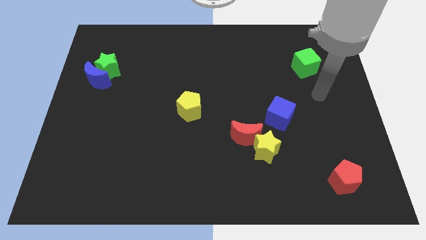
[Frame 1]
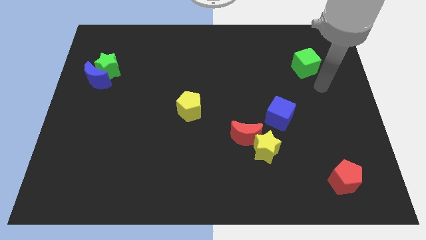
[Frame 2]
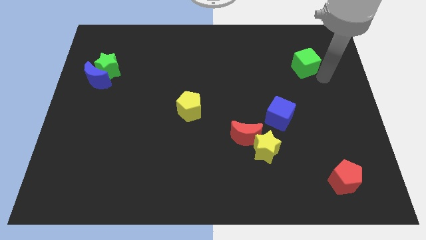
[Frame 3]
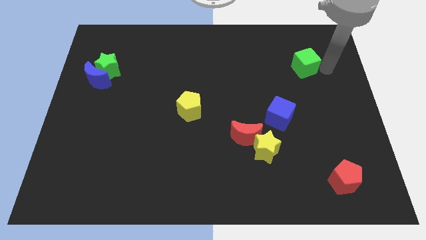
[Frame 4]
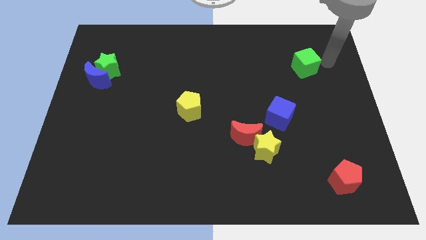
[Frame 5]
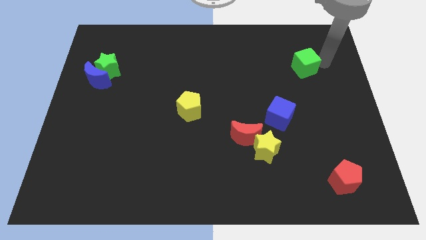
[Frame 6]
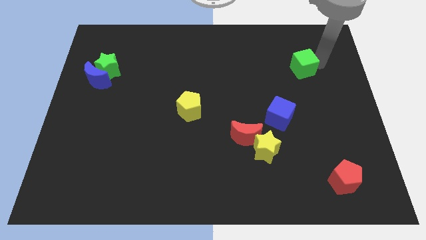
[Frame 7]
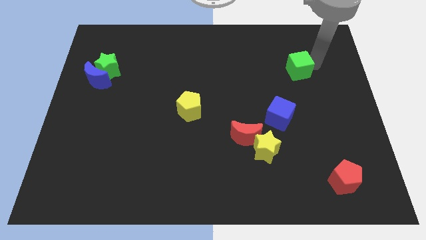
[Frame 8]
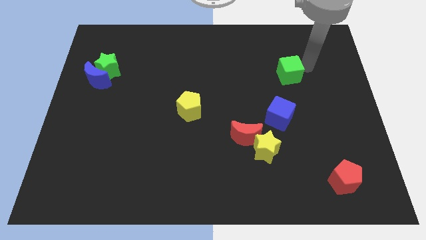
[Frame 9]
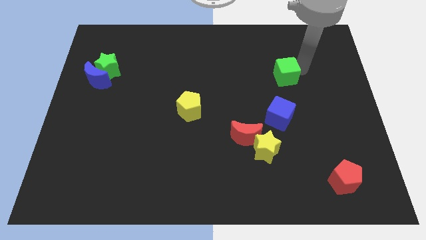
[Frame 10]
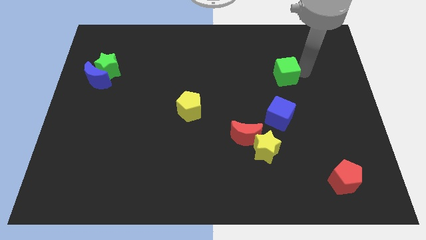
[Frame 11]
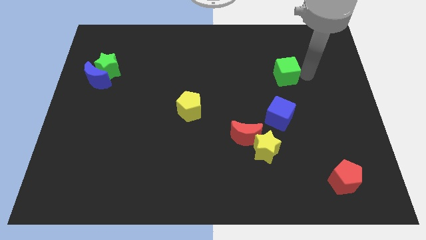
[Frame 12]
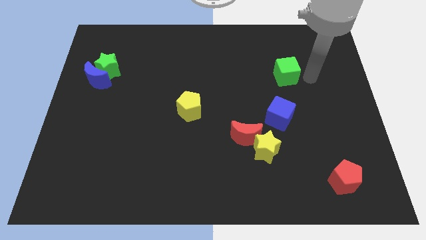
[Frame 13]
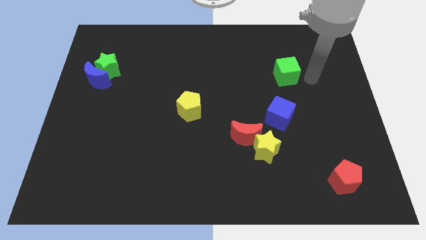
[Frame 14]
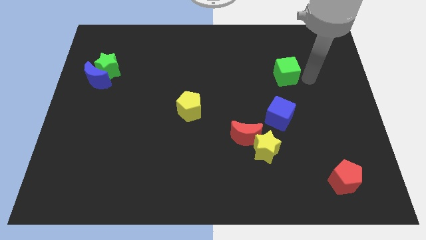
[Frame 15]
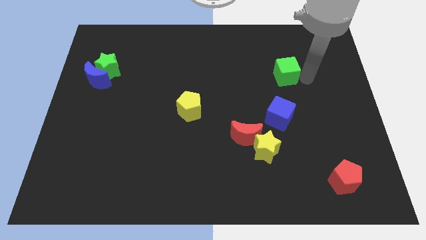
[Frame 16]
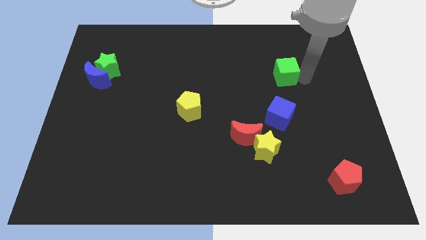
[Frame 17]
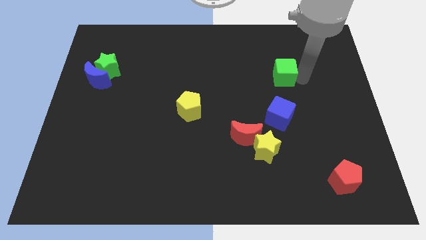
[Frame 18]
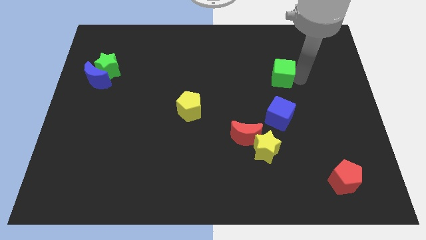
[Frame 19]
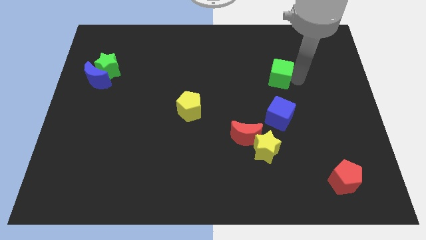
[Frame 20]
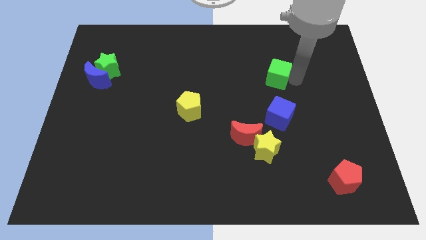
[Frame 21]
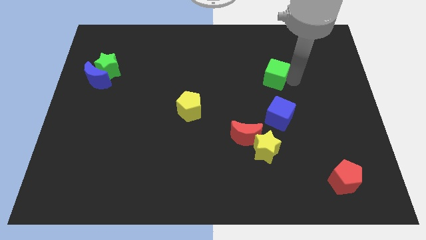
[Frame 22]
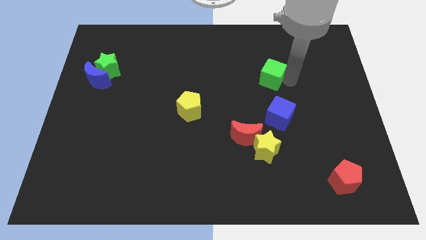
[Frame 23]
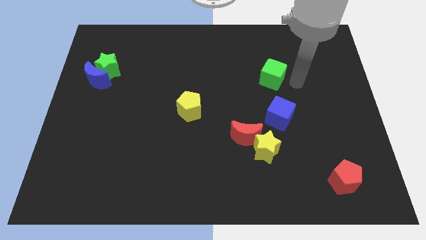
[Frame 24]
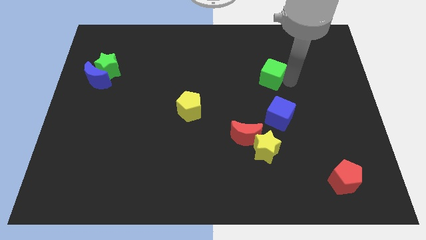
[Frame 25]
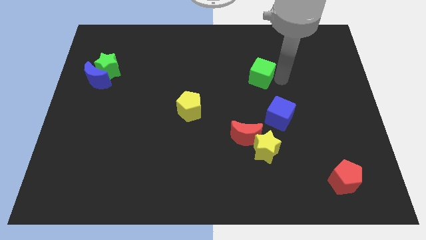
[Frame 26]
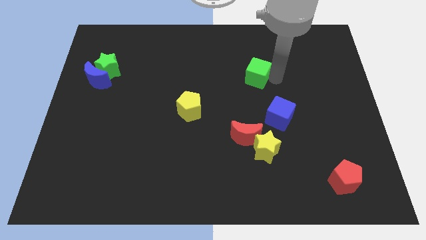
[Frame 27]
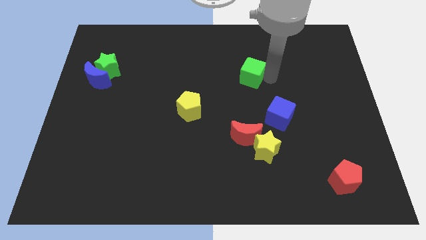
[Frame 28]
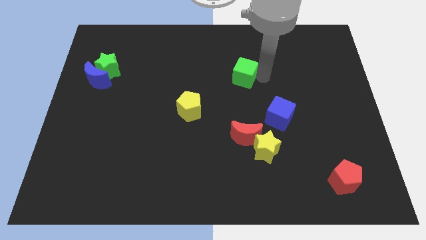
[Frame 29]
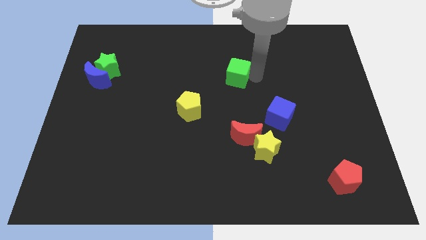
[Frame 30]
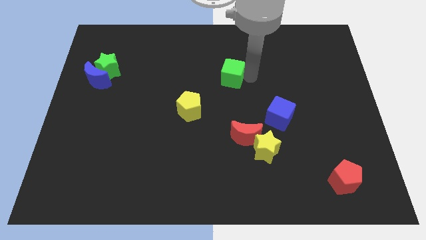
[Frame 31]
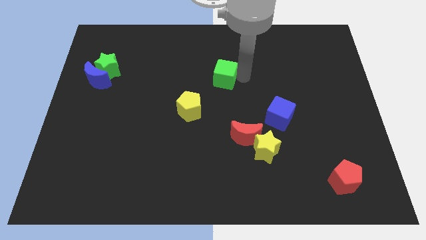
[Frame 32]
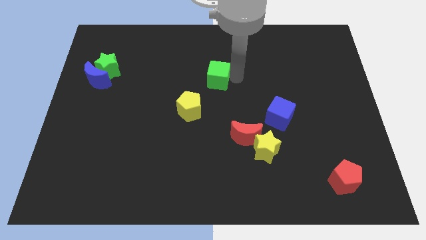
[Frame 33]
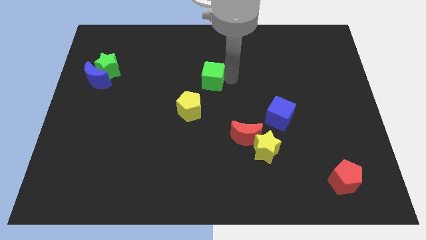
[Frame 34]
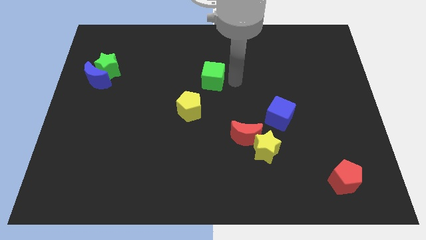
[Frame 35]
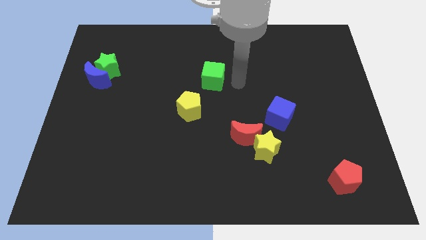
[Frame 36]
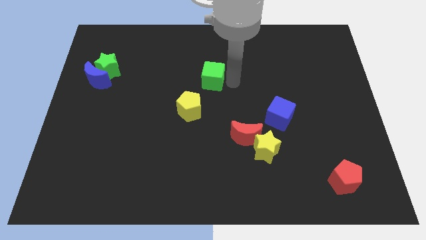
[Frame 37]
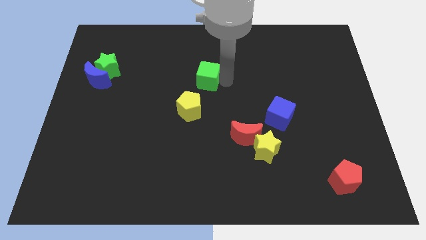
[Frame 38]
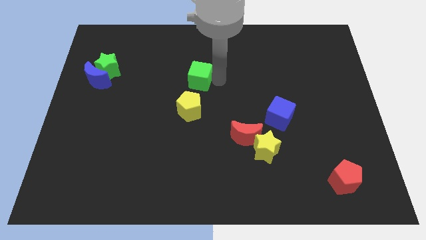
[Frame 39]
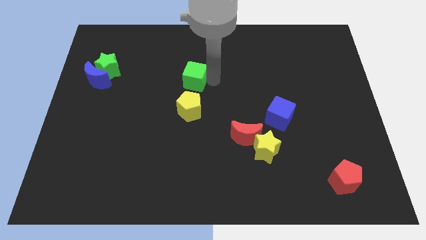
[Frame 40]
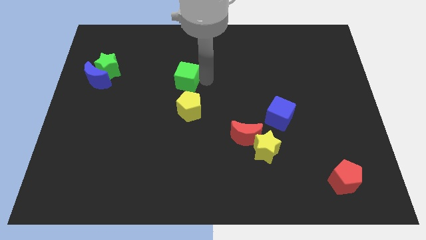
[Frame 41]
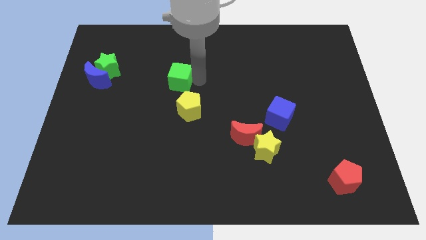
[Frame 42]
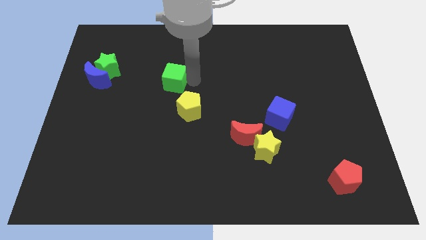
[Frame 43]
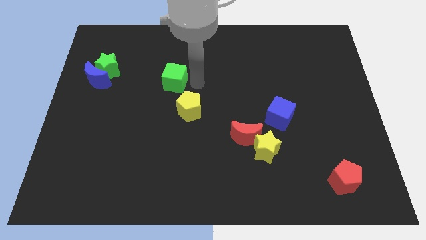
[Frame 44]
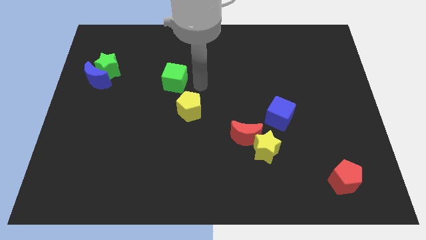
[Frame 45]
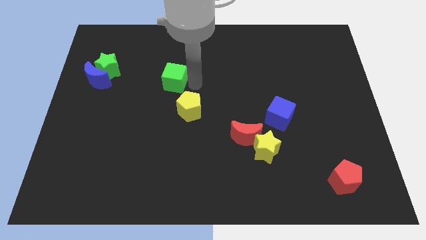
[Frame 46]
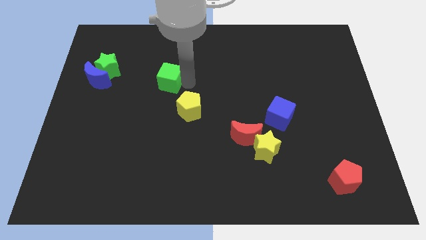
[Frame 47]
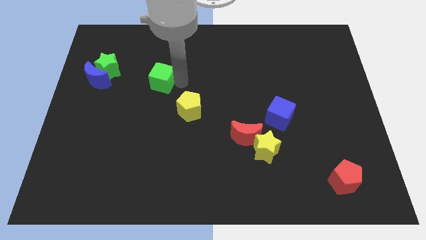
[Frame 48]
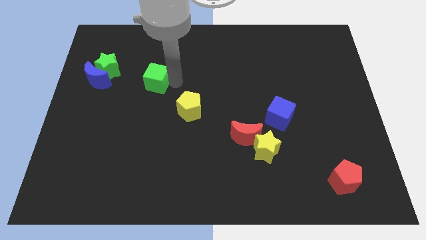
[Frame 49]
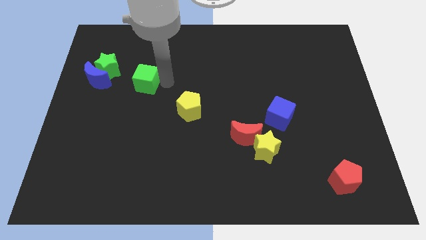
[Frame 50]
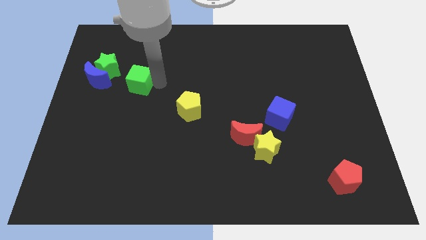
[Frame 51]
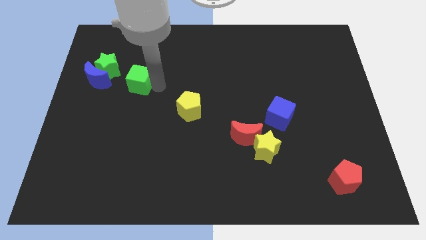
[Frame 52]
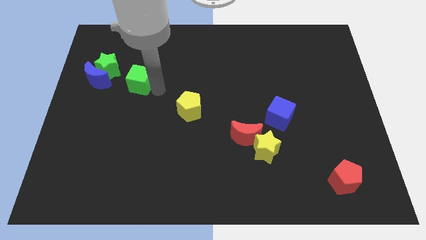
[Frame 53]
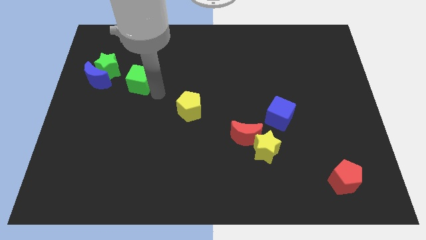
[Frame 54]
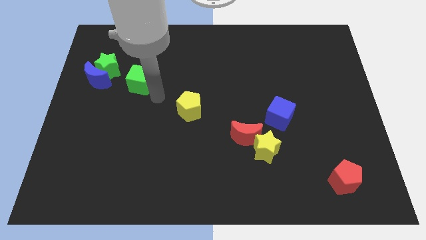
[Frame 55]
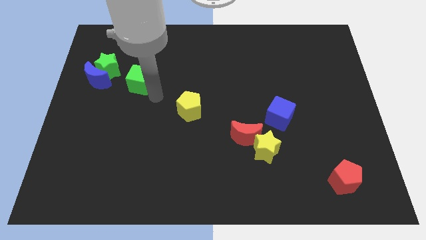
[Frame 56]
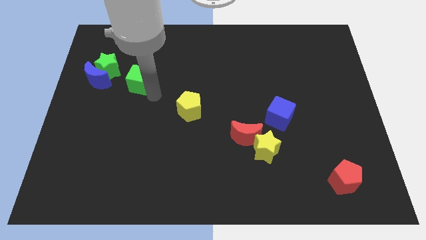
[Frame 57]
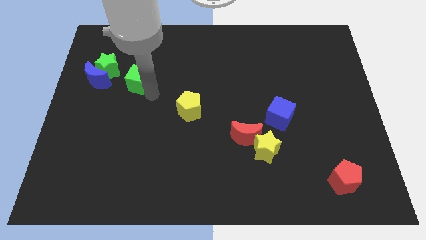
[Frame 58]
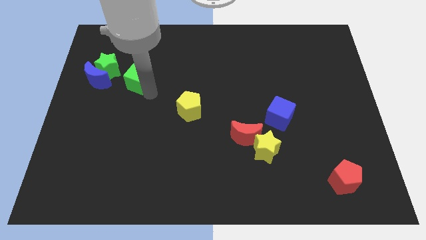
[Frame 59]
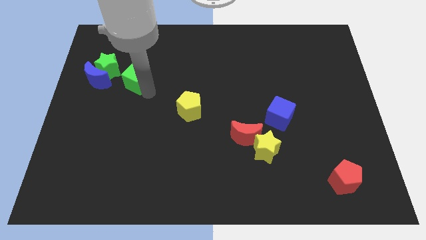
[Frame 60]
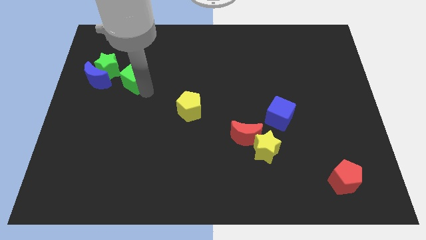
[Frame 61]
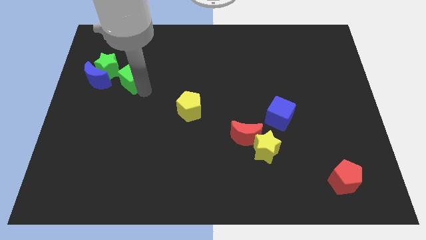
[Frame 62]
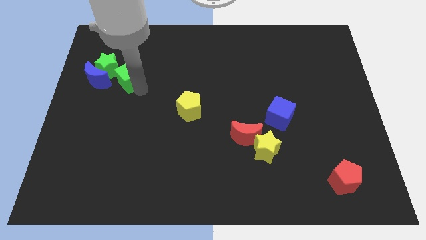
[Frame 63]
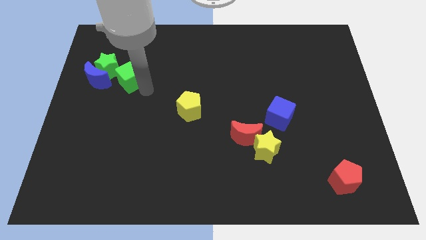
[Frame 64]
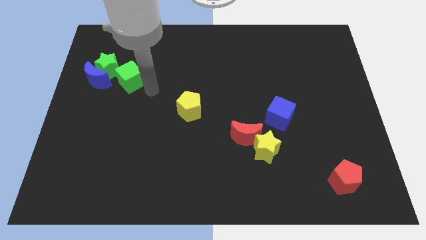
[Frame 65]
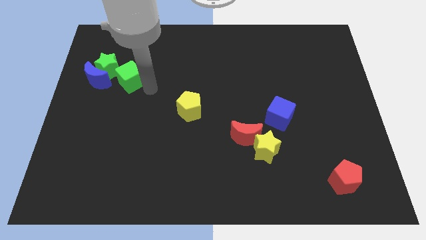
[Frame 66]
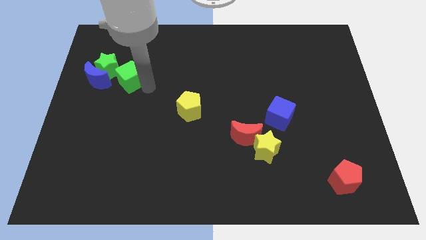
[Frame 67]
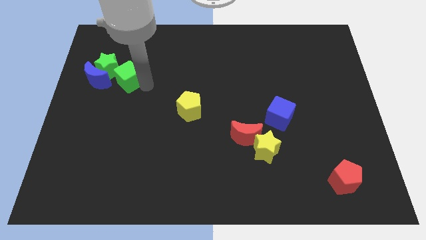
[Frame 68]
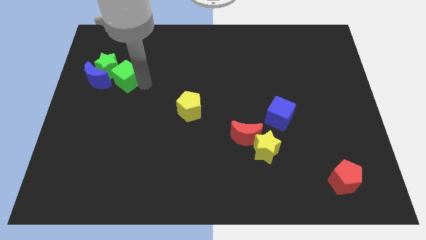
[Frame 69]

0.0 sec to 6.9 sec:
push the green cube close to the green star

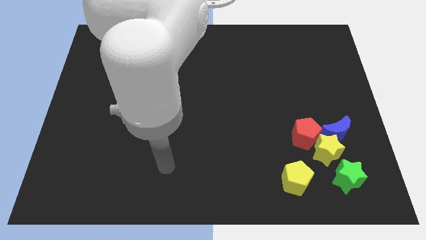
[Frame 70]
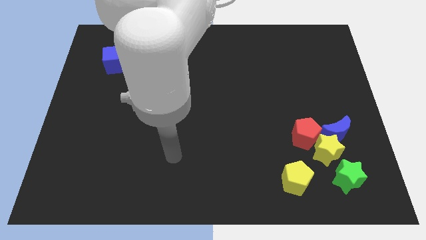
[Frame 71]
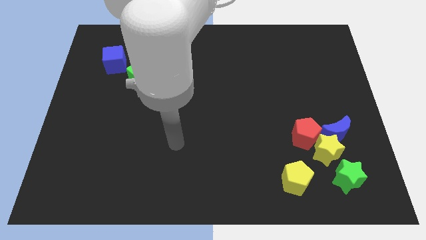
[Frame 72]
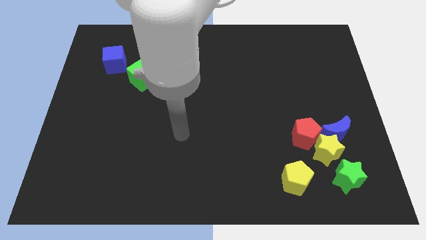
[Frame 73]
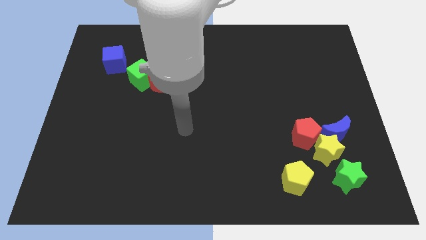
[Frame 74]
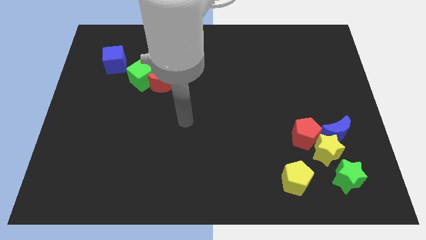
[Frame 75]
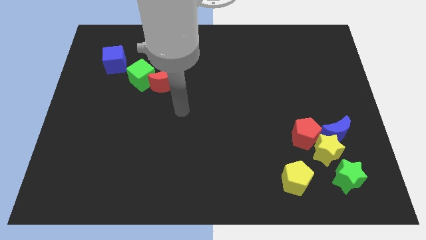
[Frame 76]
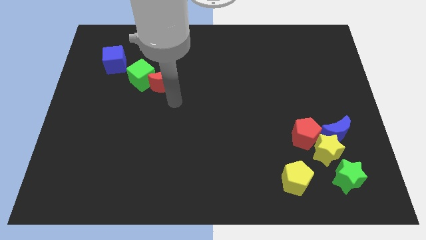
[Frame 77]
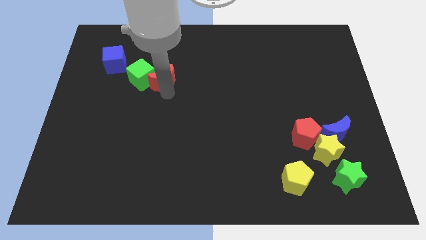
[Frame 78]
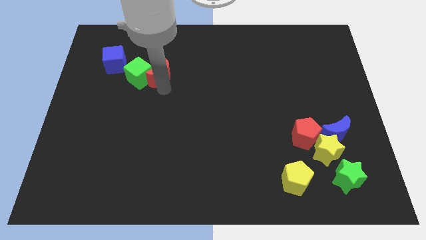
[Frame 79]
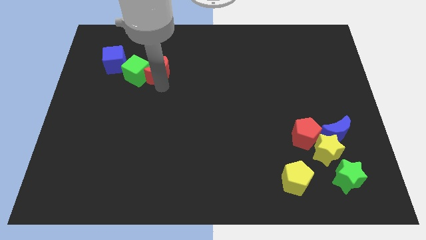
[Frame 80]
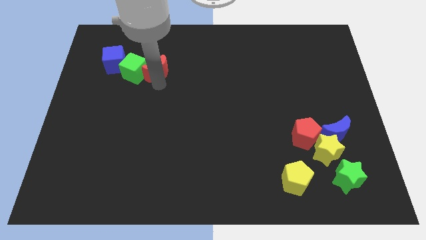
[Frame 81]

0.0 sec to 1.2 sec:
move the green cube towards the blue cube
